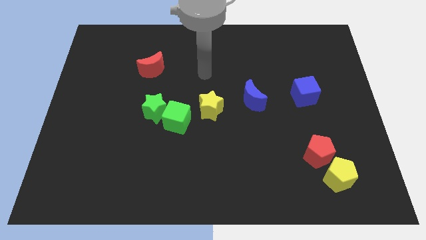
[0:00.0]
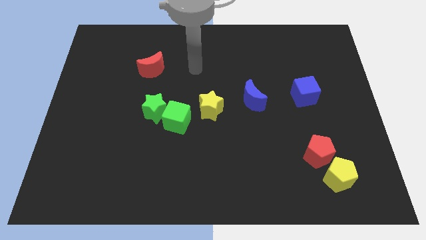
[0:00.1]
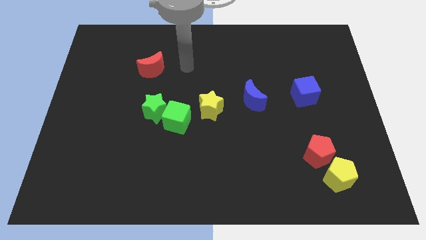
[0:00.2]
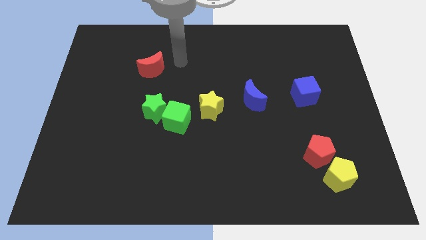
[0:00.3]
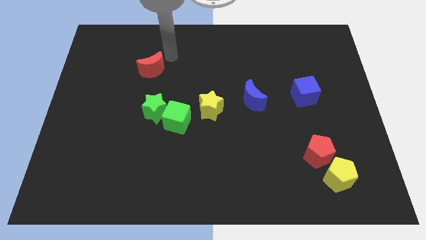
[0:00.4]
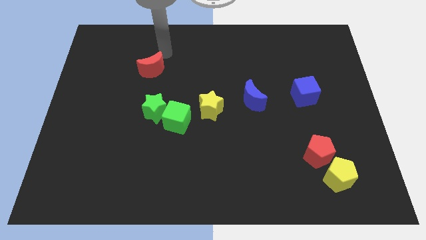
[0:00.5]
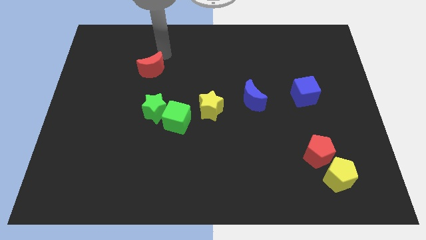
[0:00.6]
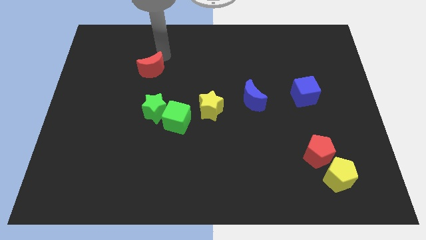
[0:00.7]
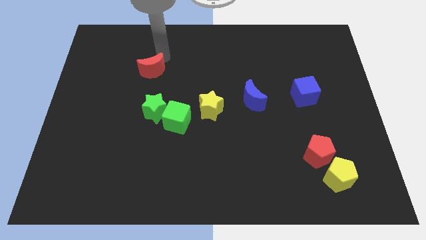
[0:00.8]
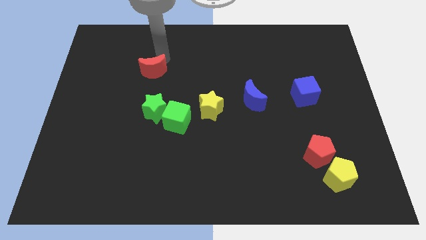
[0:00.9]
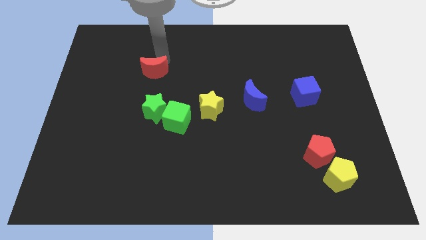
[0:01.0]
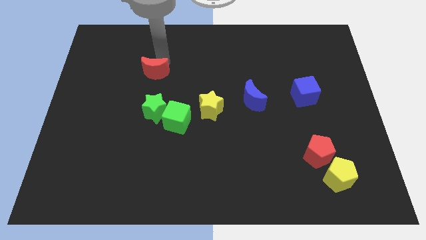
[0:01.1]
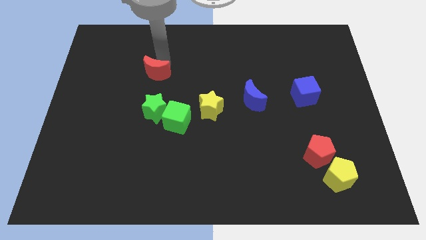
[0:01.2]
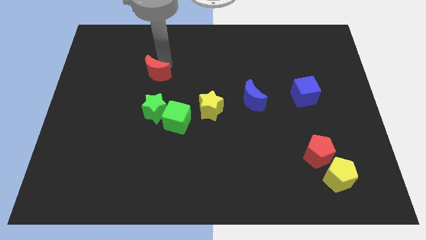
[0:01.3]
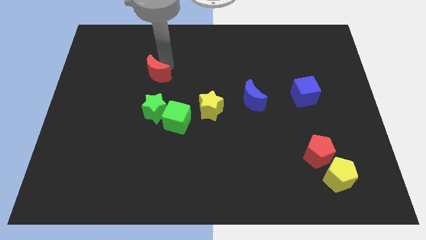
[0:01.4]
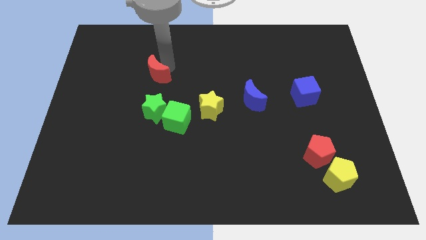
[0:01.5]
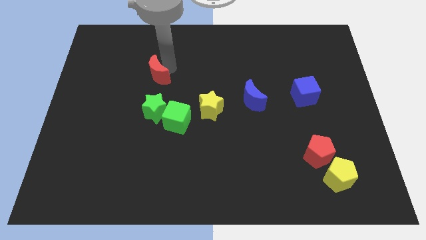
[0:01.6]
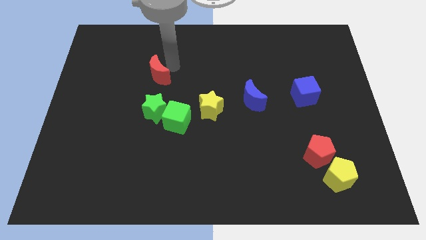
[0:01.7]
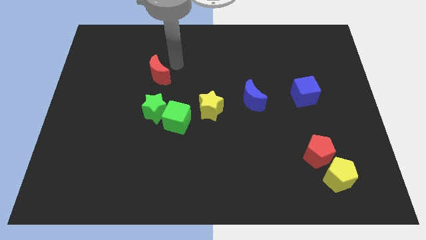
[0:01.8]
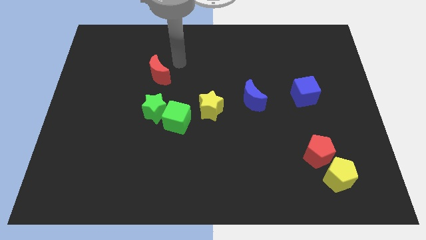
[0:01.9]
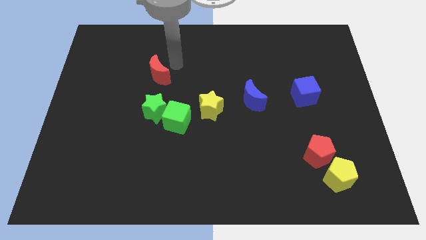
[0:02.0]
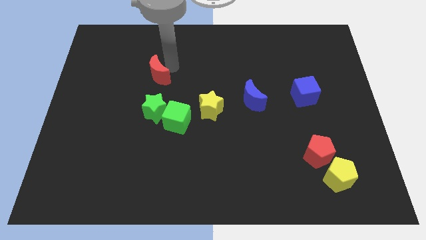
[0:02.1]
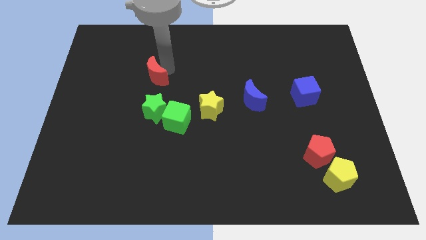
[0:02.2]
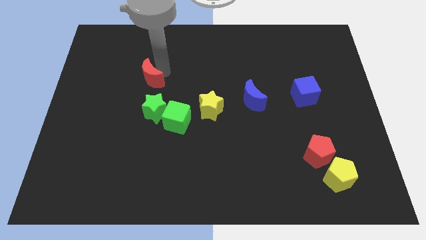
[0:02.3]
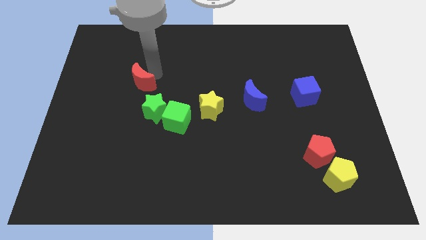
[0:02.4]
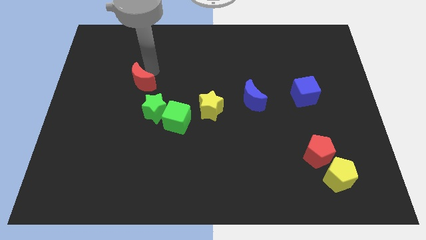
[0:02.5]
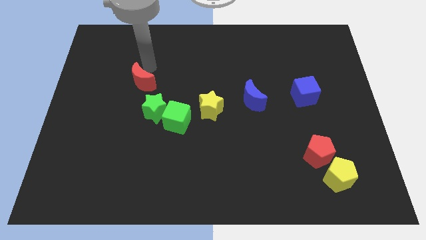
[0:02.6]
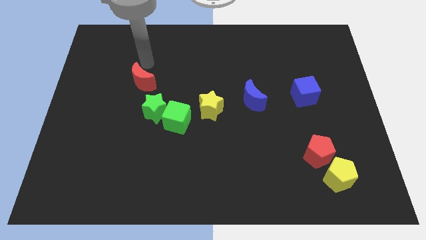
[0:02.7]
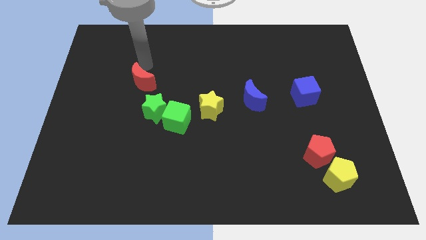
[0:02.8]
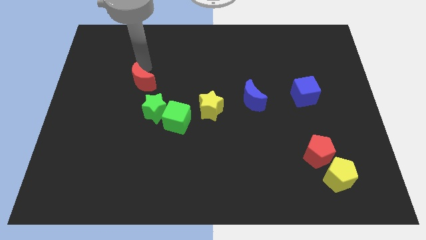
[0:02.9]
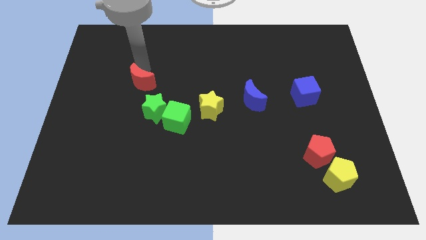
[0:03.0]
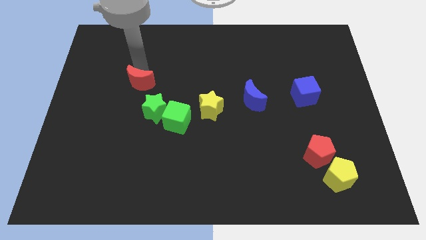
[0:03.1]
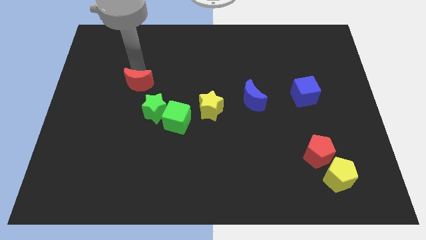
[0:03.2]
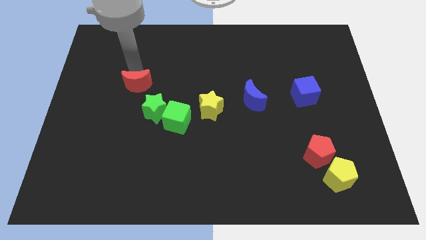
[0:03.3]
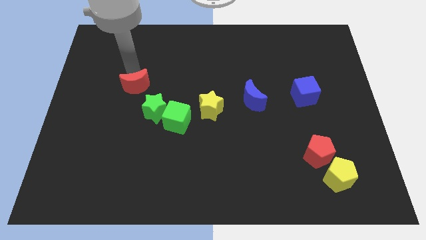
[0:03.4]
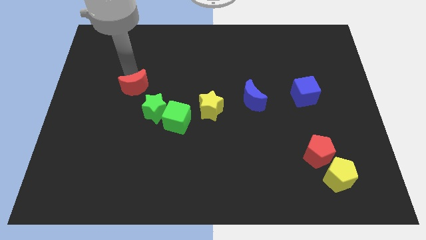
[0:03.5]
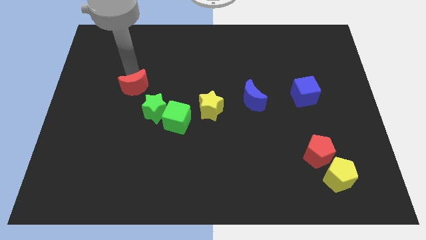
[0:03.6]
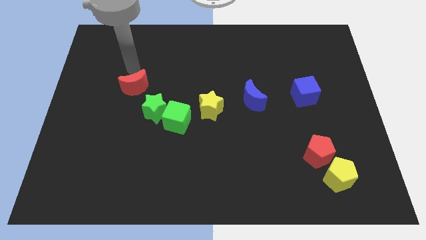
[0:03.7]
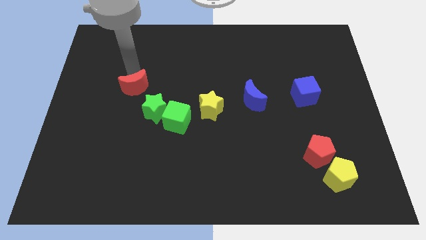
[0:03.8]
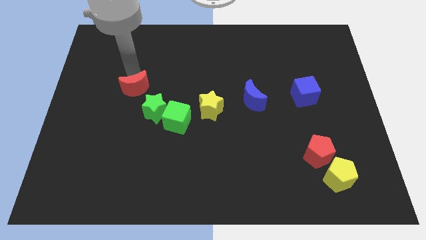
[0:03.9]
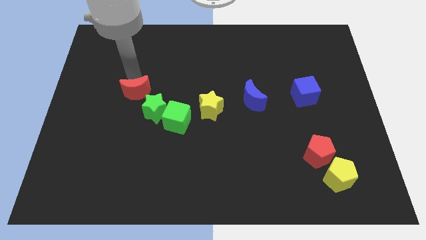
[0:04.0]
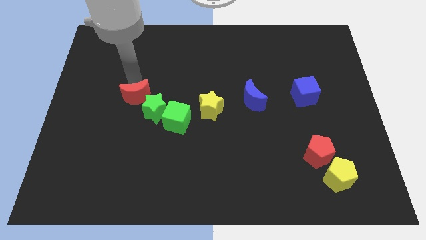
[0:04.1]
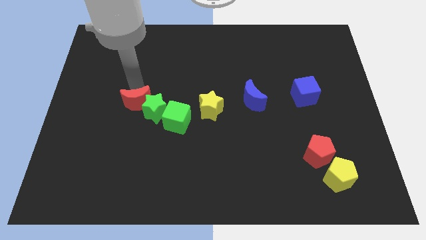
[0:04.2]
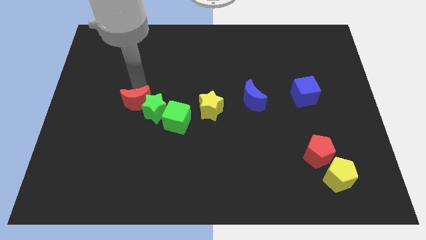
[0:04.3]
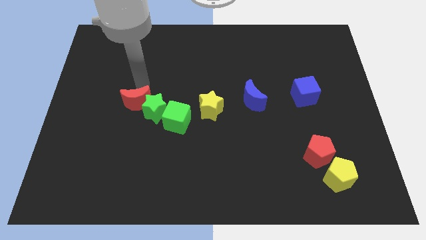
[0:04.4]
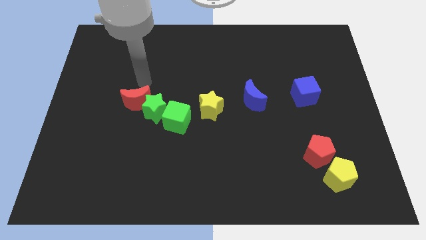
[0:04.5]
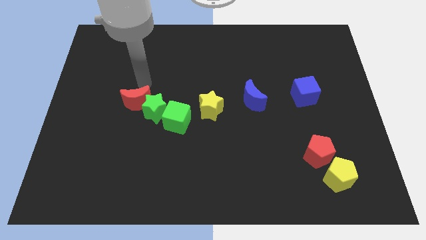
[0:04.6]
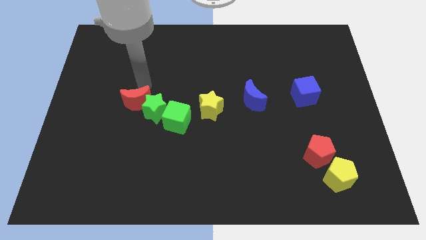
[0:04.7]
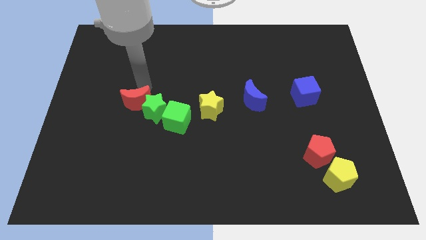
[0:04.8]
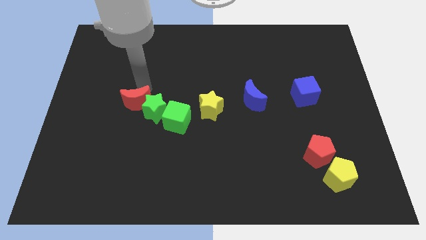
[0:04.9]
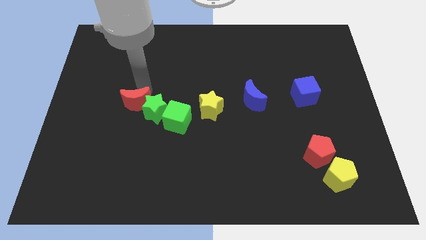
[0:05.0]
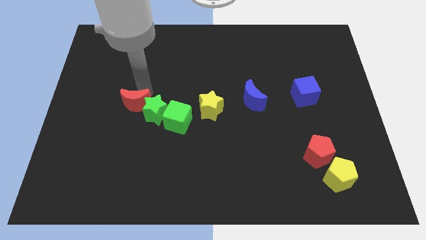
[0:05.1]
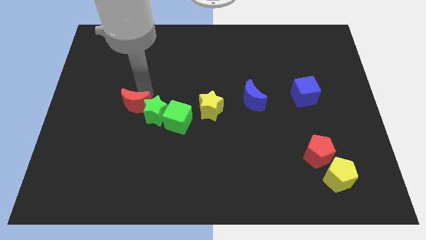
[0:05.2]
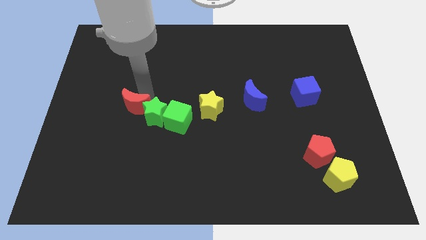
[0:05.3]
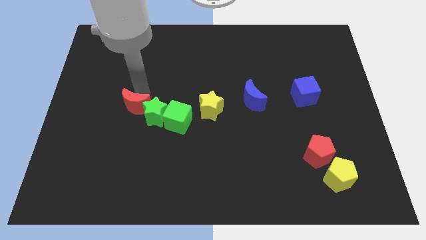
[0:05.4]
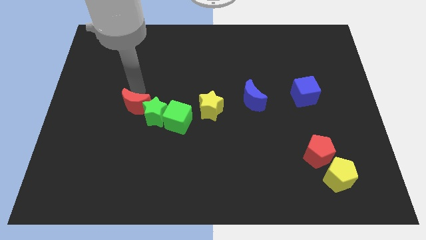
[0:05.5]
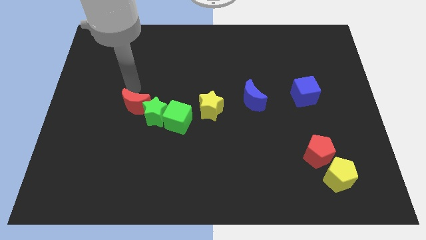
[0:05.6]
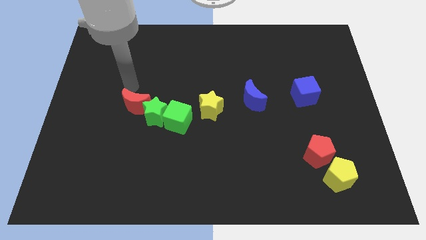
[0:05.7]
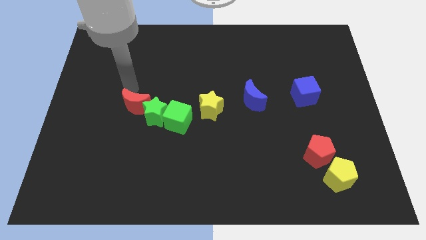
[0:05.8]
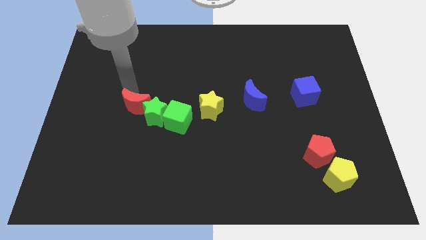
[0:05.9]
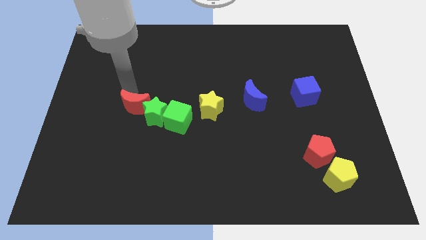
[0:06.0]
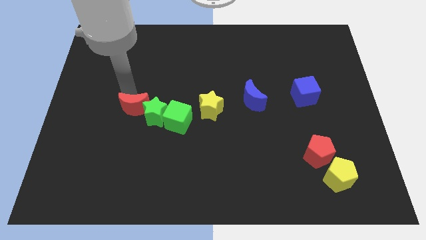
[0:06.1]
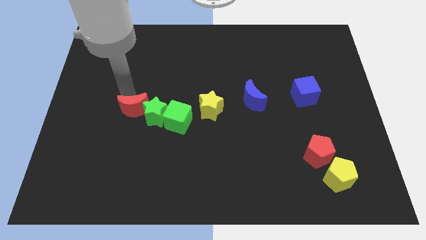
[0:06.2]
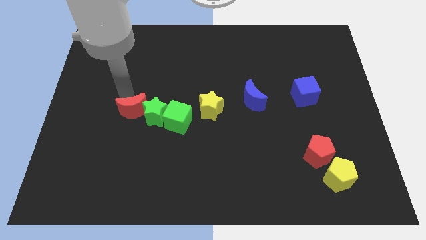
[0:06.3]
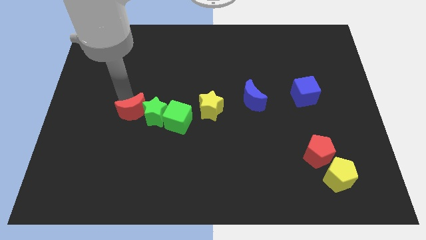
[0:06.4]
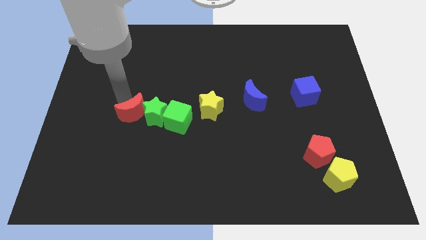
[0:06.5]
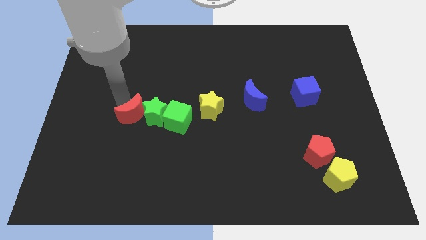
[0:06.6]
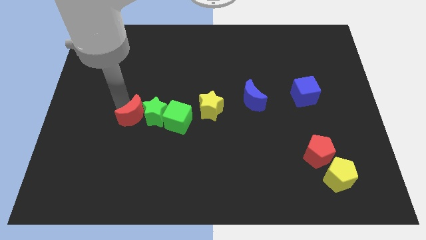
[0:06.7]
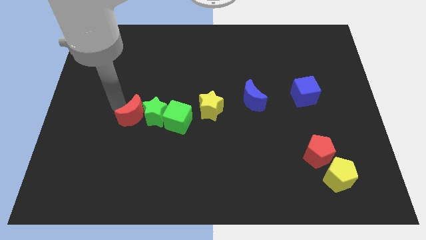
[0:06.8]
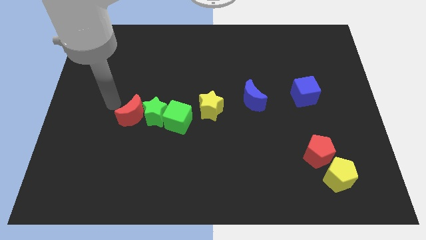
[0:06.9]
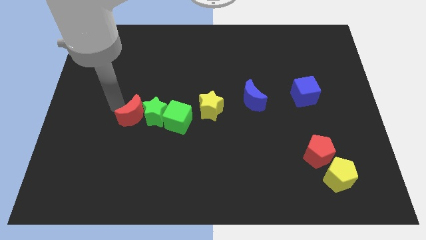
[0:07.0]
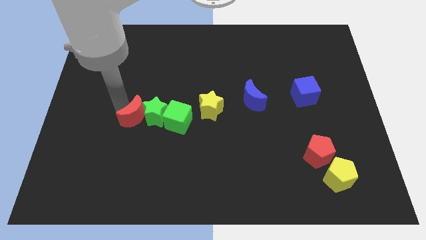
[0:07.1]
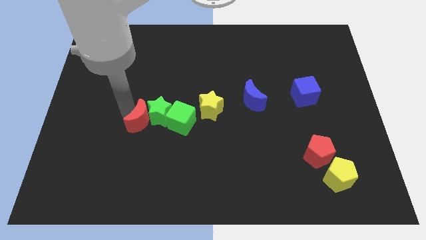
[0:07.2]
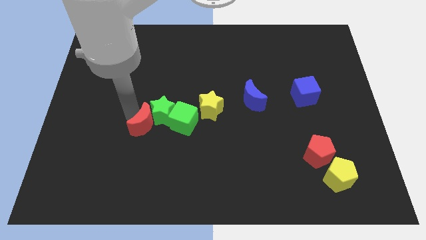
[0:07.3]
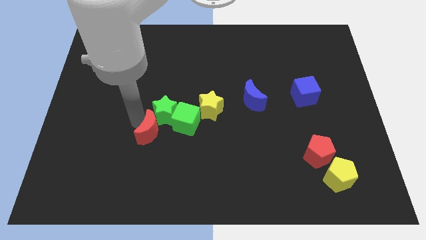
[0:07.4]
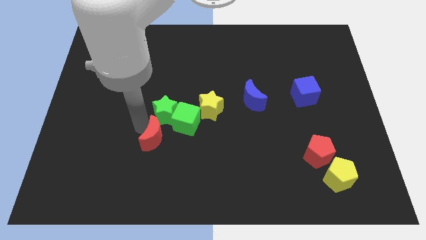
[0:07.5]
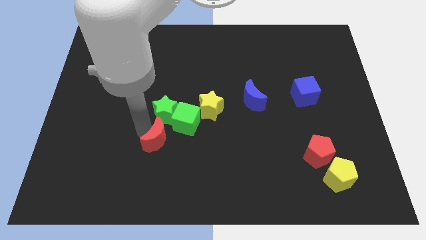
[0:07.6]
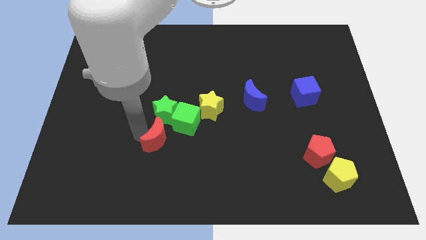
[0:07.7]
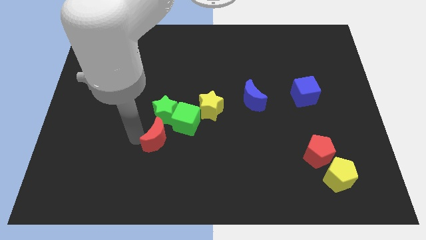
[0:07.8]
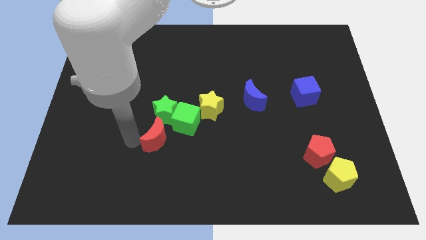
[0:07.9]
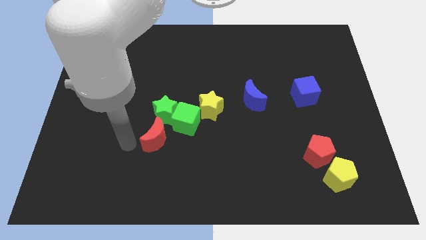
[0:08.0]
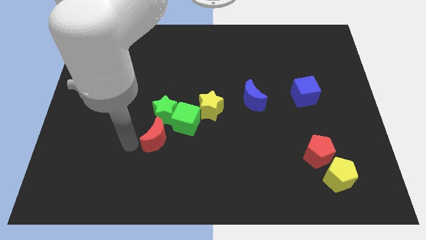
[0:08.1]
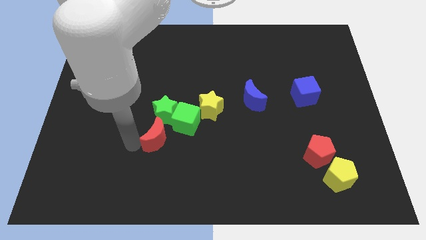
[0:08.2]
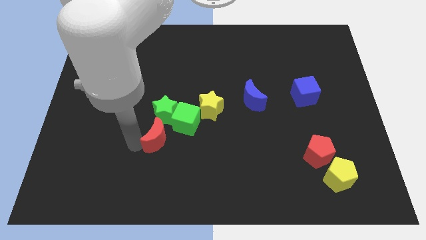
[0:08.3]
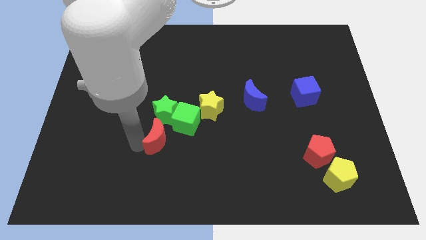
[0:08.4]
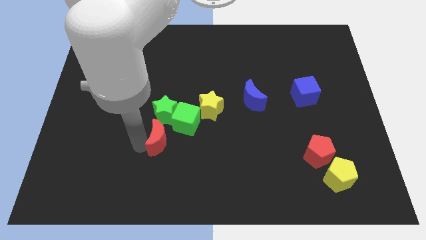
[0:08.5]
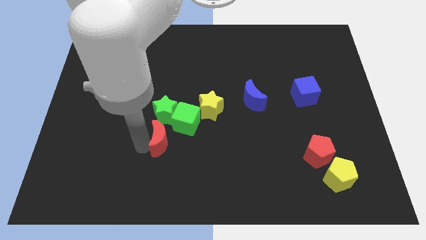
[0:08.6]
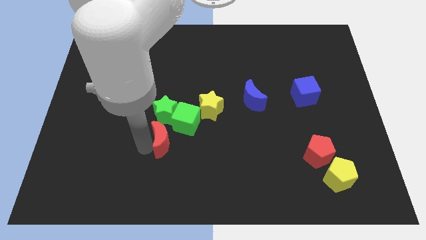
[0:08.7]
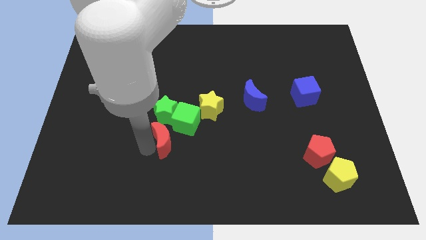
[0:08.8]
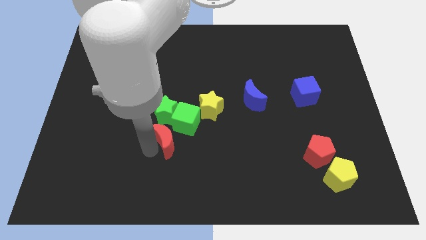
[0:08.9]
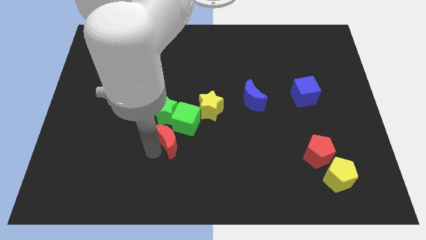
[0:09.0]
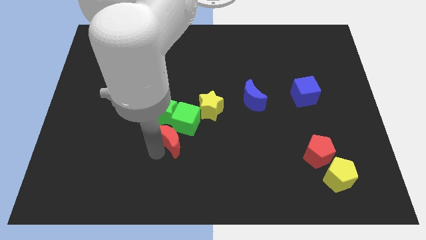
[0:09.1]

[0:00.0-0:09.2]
push the red moon to the bottom left side of the yellow star
